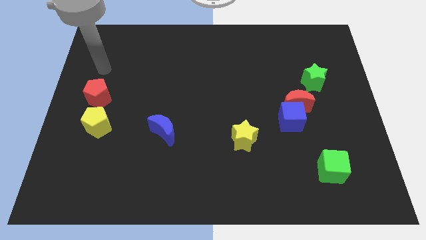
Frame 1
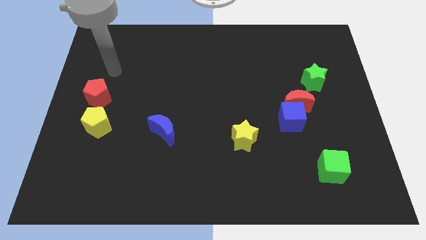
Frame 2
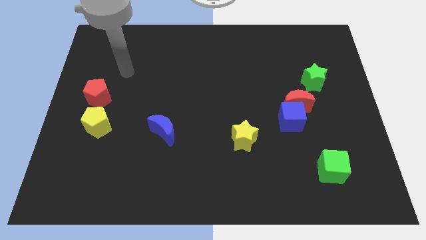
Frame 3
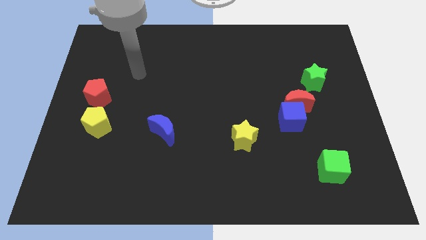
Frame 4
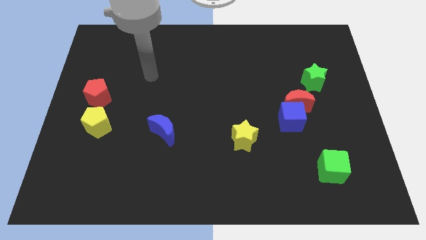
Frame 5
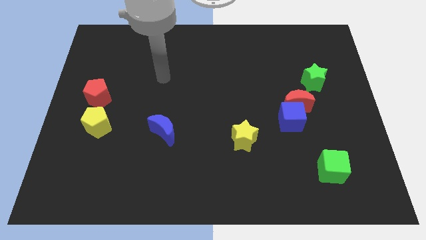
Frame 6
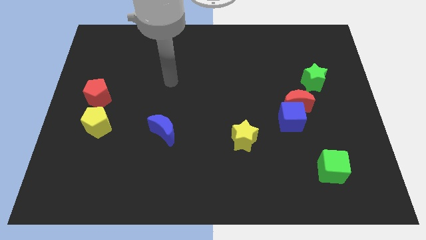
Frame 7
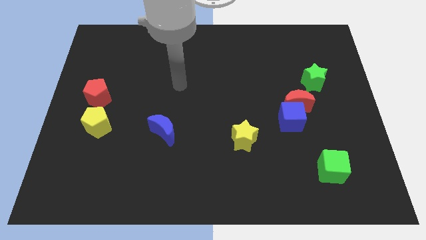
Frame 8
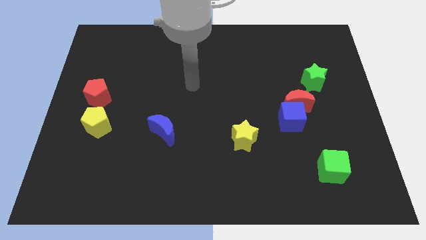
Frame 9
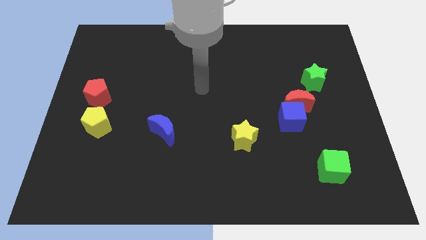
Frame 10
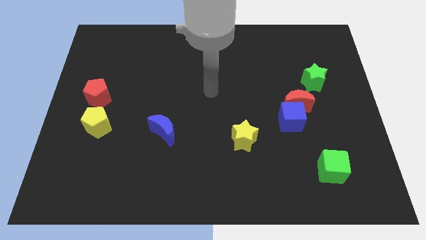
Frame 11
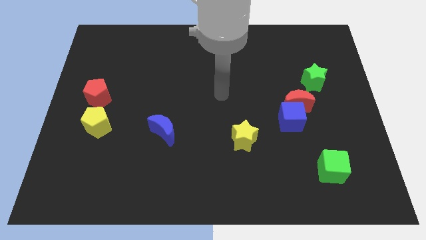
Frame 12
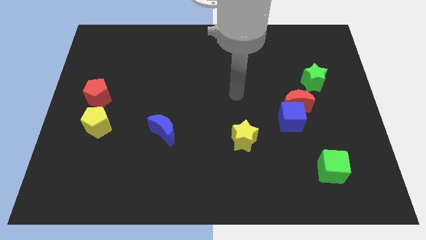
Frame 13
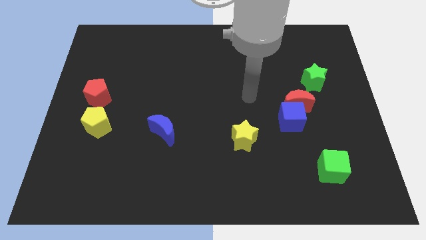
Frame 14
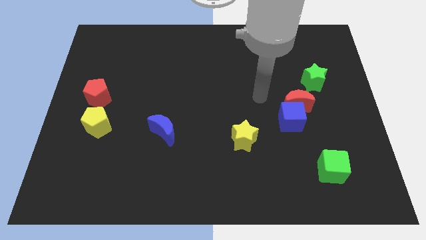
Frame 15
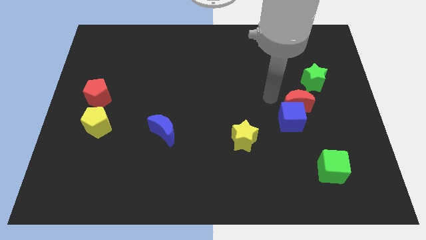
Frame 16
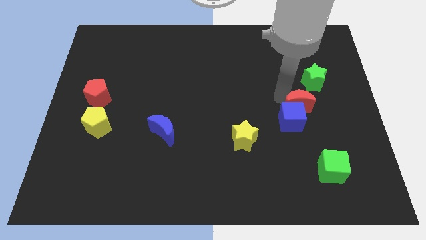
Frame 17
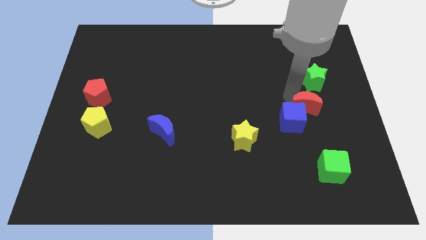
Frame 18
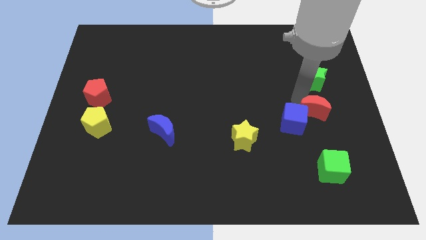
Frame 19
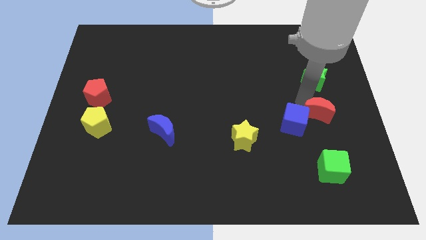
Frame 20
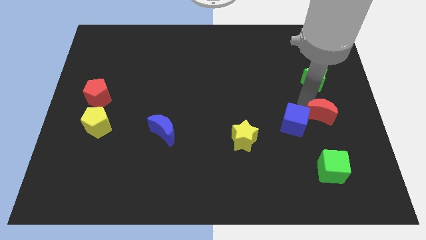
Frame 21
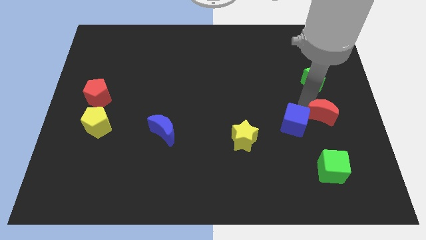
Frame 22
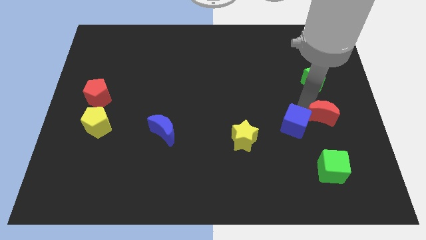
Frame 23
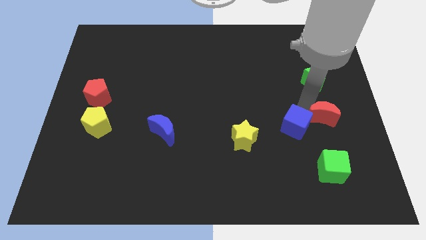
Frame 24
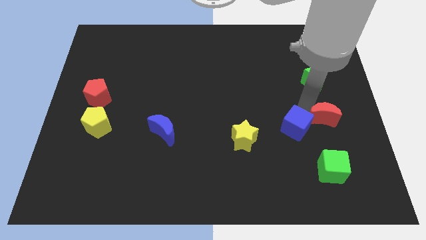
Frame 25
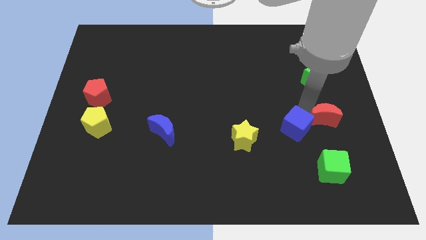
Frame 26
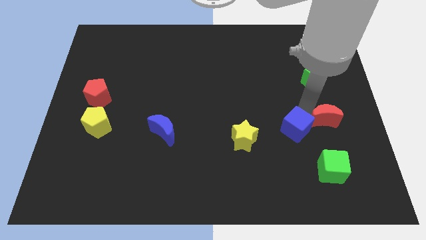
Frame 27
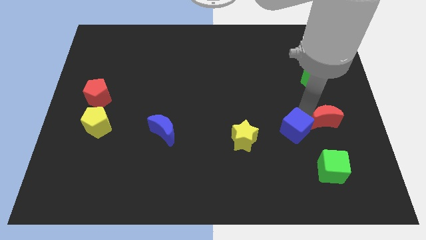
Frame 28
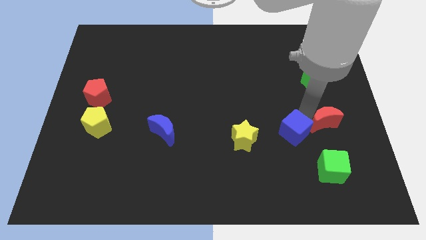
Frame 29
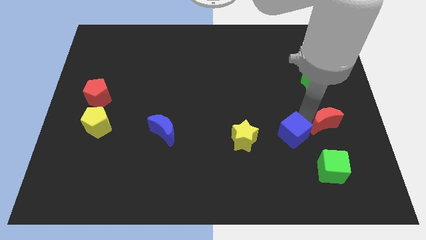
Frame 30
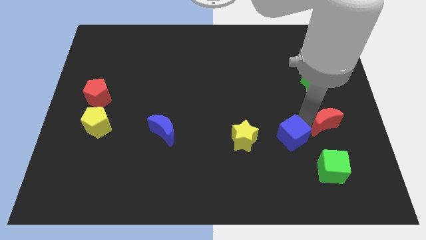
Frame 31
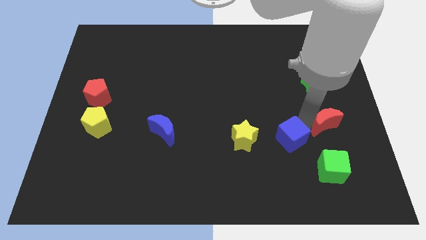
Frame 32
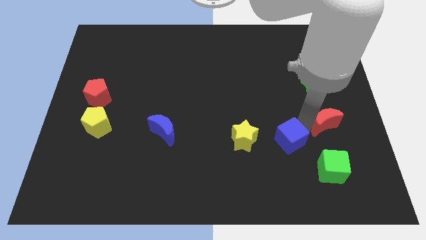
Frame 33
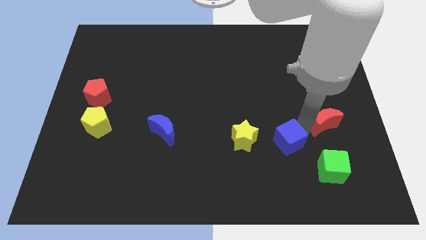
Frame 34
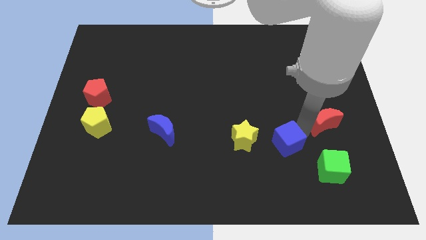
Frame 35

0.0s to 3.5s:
move the blue cube away from the red moon

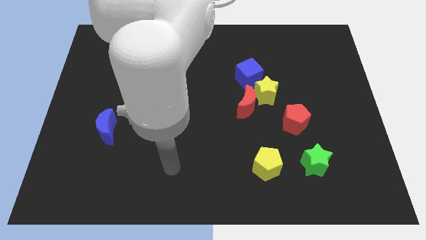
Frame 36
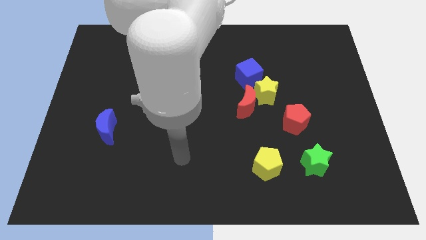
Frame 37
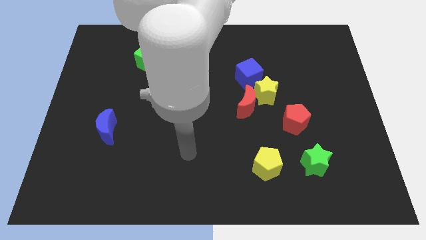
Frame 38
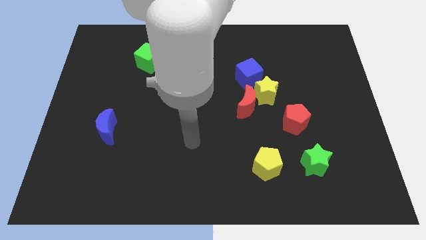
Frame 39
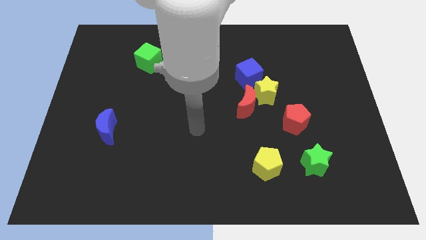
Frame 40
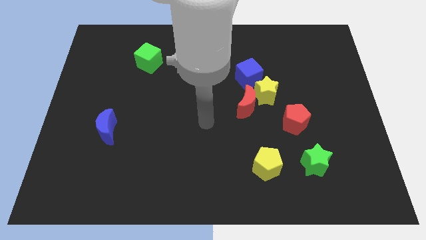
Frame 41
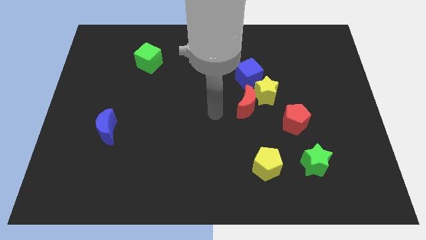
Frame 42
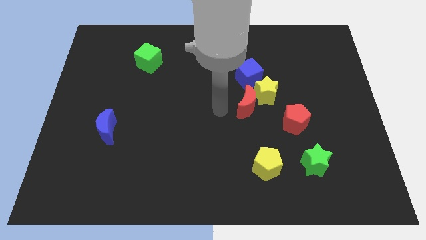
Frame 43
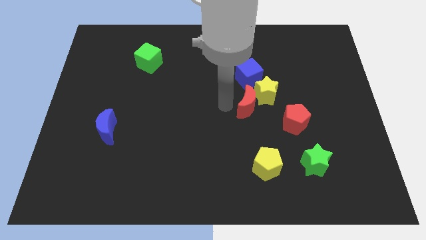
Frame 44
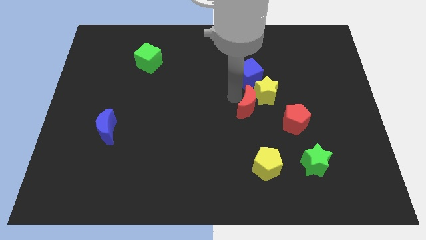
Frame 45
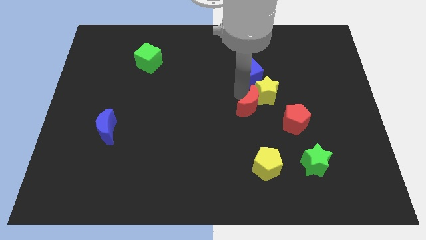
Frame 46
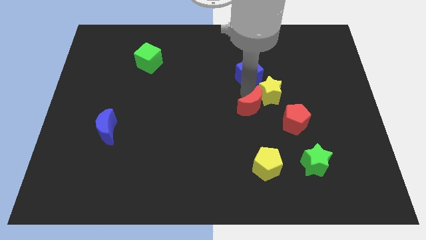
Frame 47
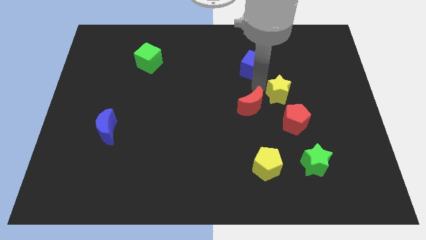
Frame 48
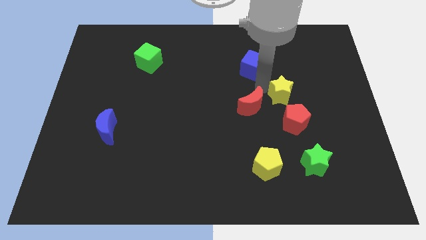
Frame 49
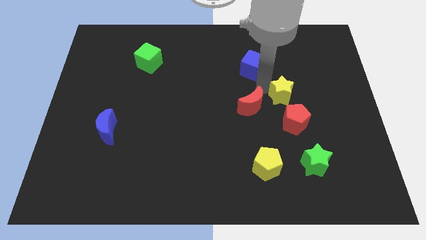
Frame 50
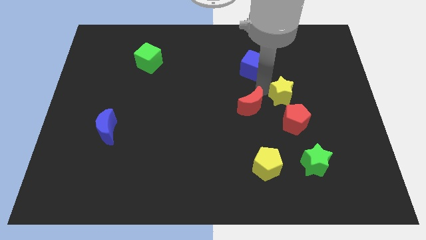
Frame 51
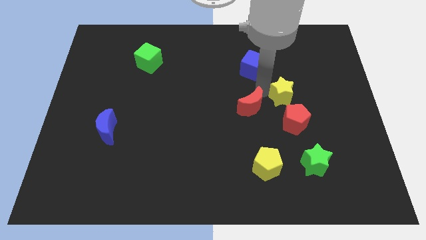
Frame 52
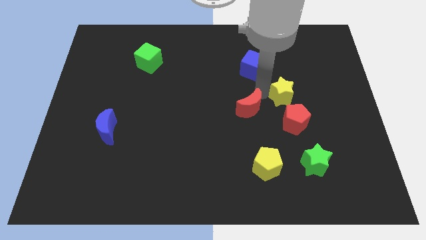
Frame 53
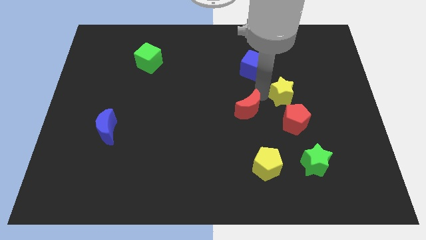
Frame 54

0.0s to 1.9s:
separate the red moon from the yellow star and blue cube

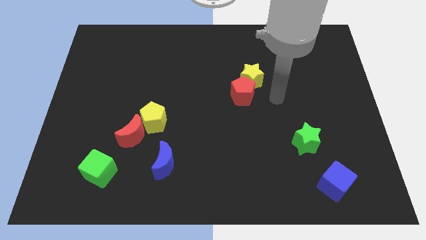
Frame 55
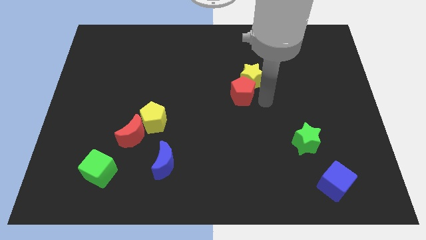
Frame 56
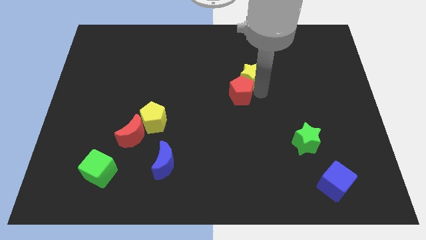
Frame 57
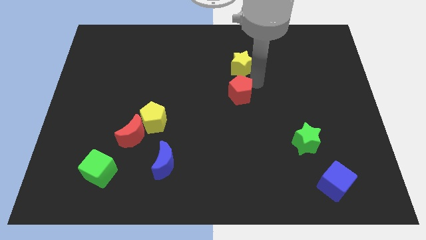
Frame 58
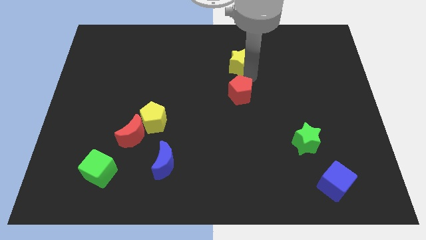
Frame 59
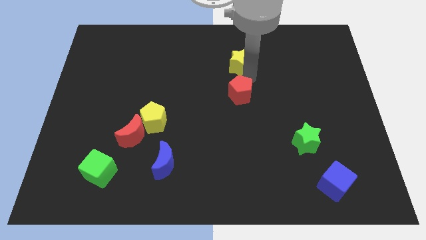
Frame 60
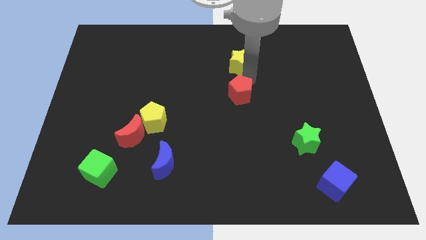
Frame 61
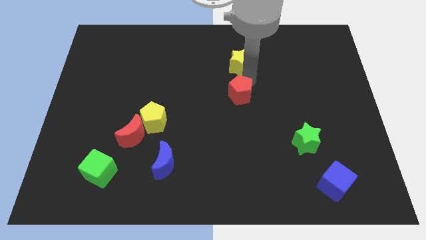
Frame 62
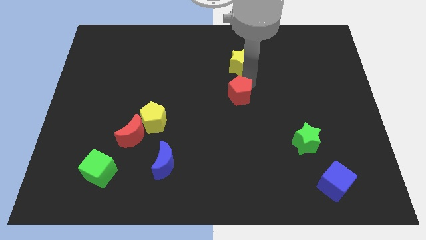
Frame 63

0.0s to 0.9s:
move the red pentagon away from the yellow star

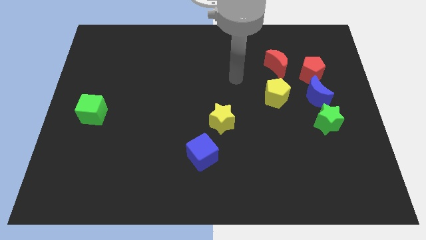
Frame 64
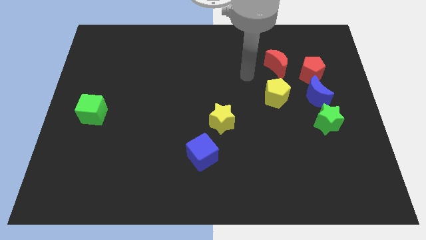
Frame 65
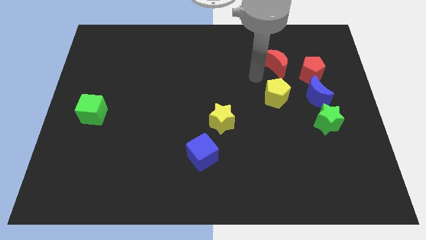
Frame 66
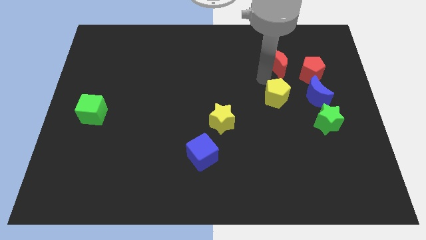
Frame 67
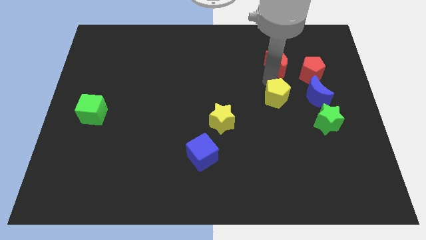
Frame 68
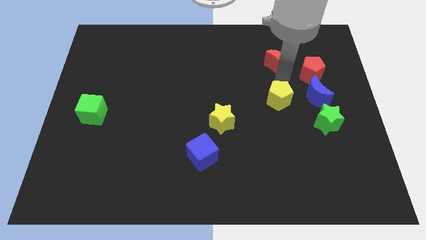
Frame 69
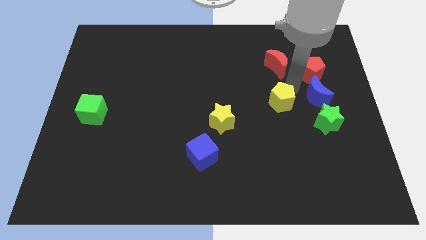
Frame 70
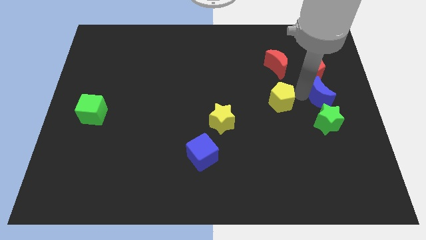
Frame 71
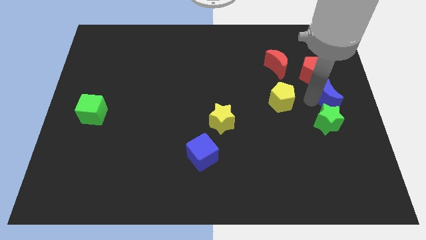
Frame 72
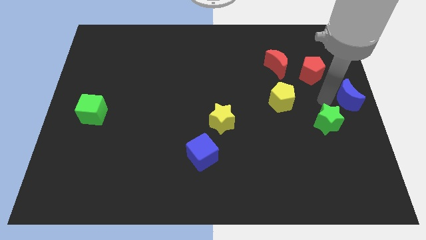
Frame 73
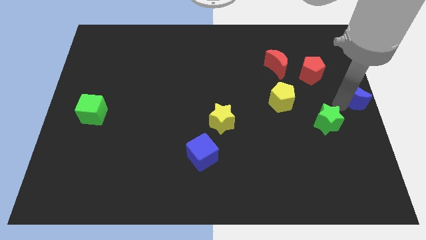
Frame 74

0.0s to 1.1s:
separate the green star from the blue moon

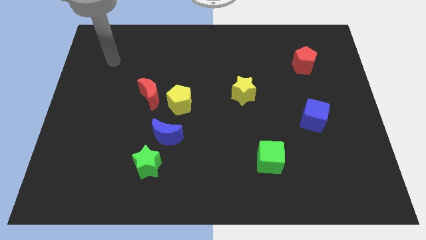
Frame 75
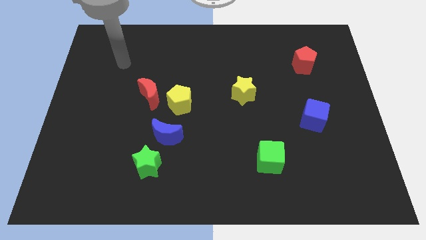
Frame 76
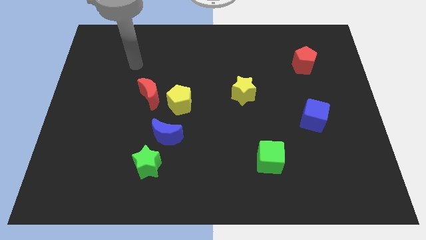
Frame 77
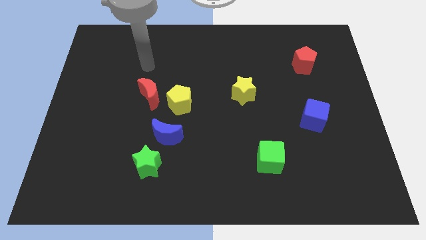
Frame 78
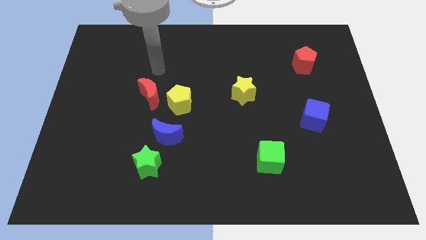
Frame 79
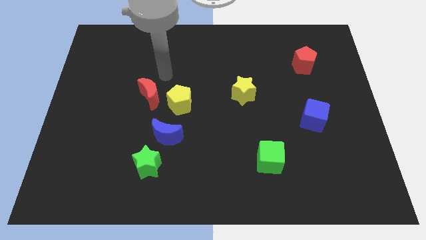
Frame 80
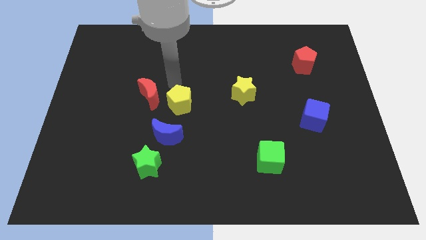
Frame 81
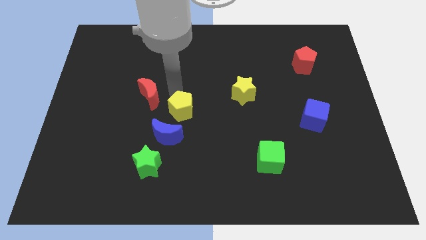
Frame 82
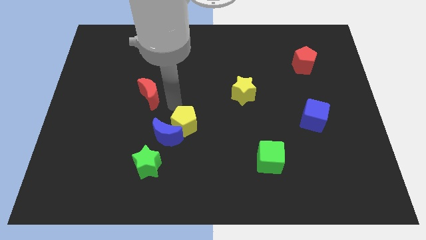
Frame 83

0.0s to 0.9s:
move the red moon away from the yellow pentagon

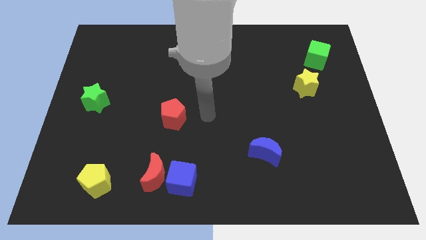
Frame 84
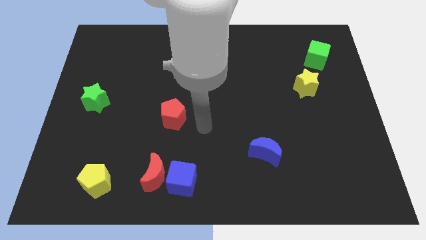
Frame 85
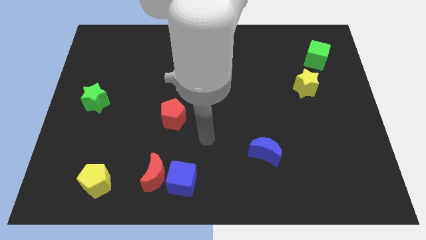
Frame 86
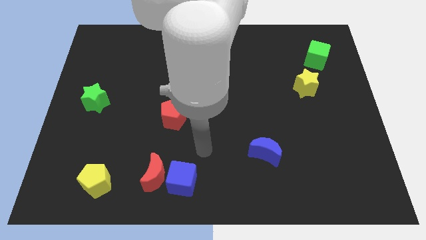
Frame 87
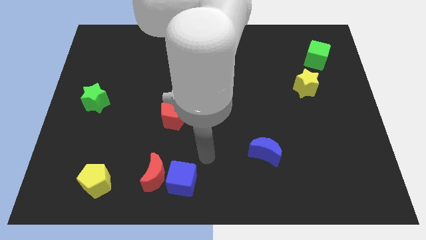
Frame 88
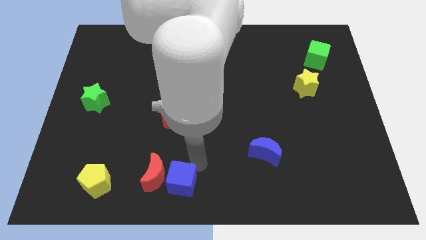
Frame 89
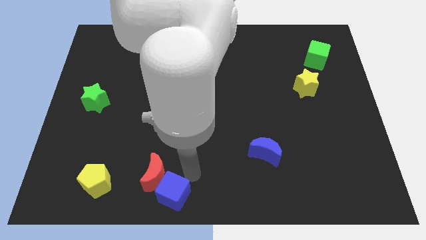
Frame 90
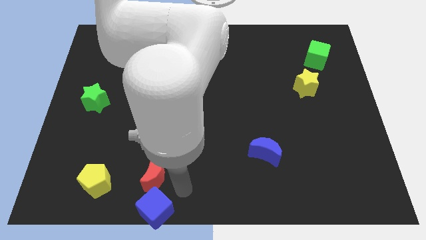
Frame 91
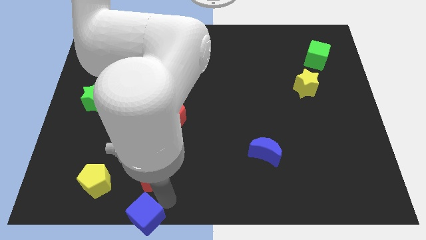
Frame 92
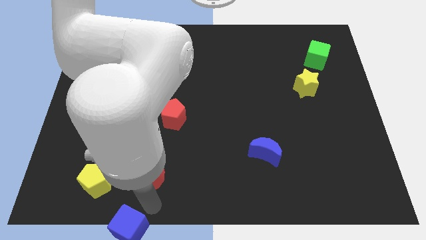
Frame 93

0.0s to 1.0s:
separate the red moon from the blue cube
